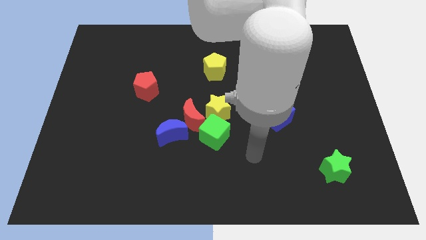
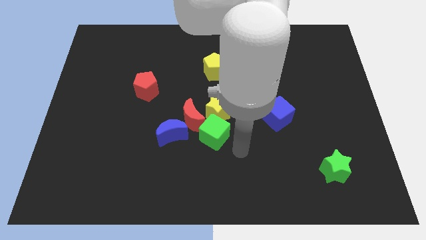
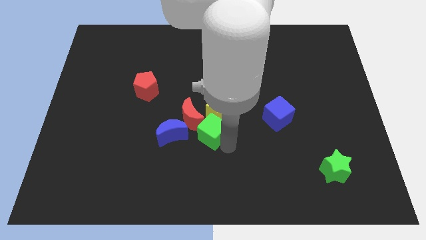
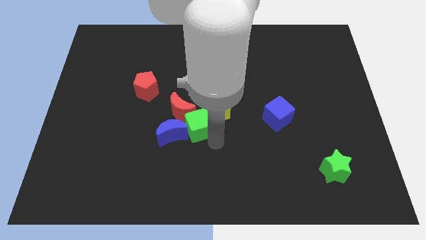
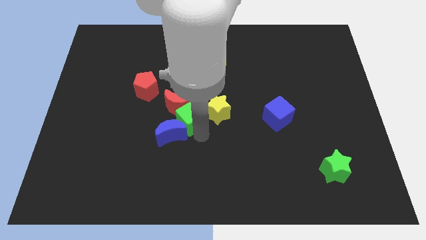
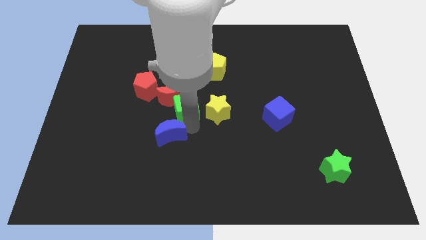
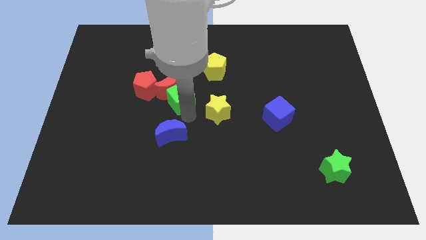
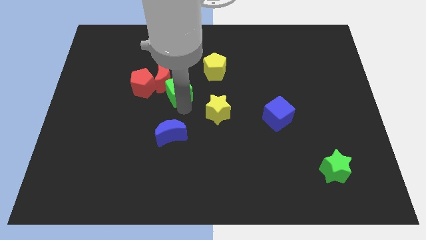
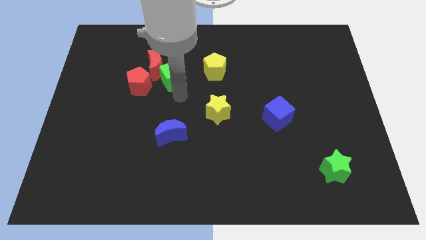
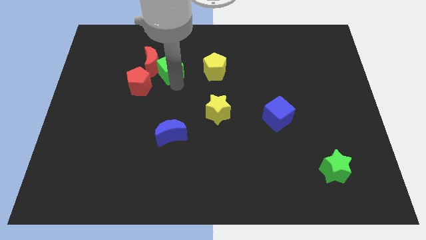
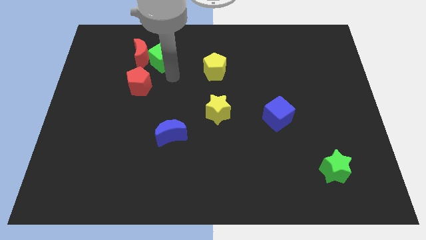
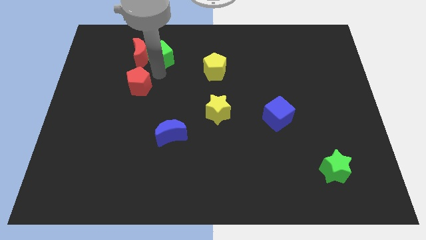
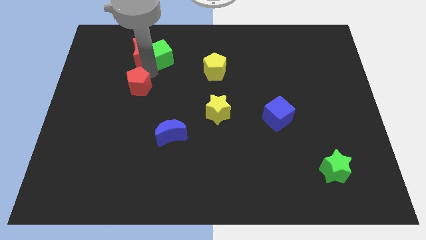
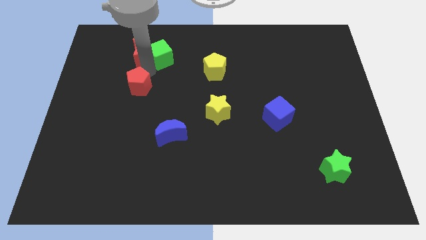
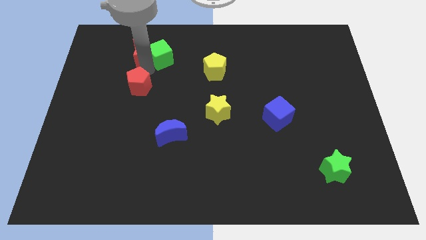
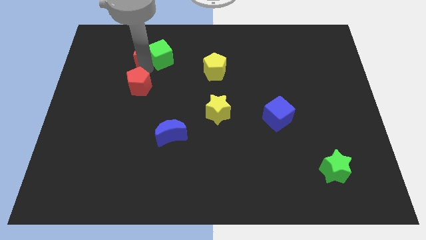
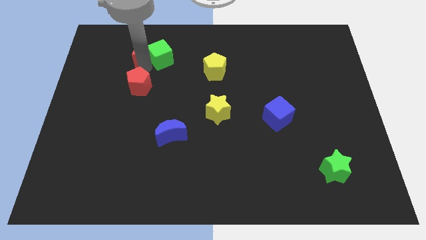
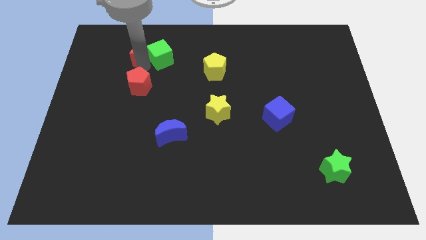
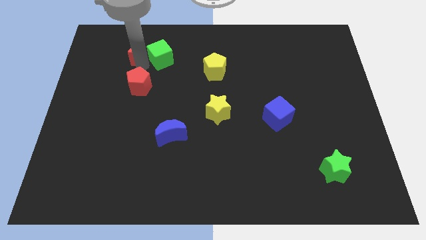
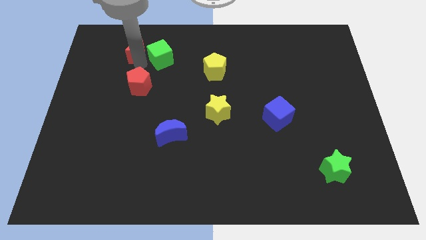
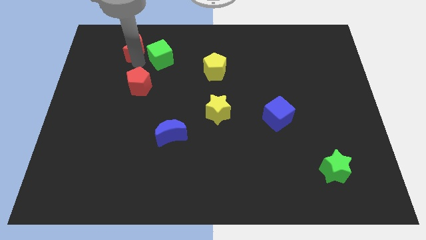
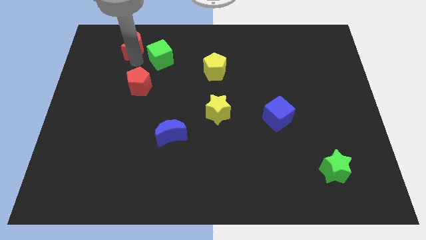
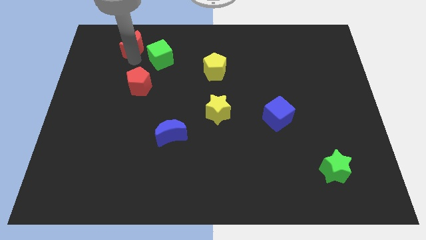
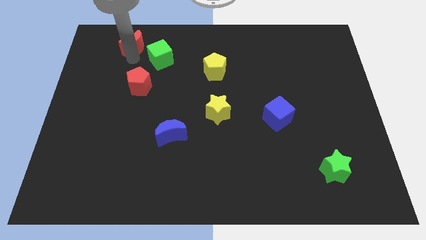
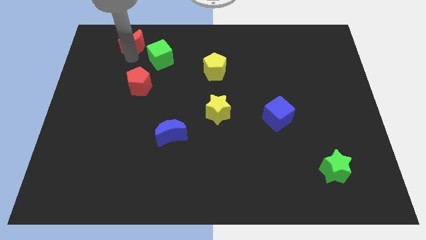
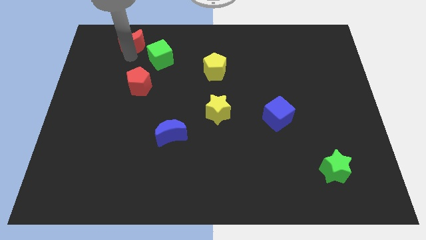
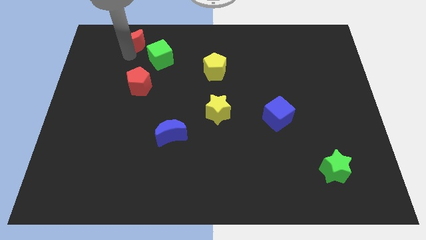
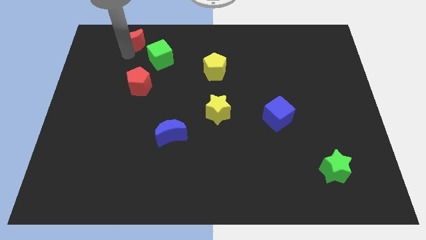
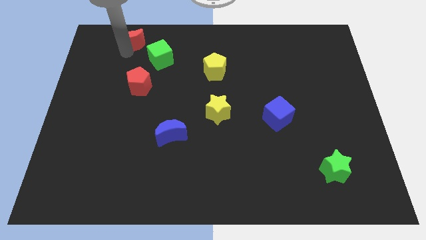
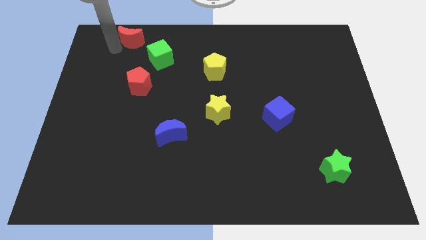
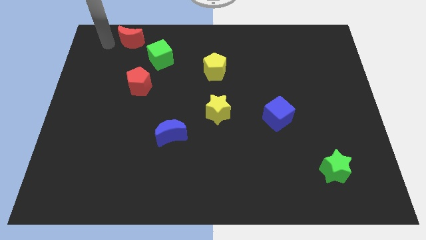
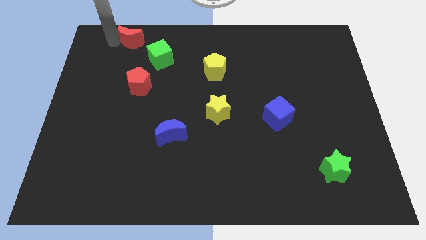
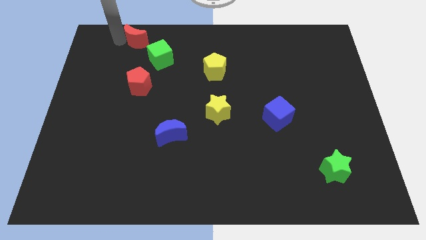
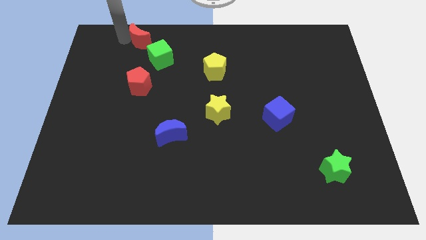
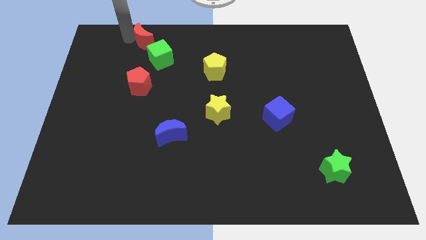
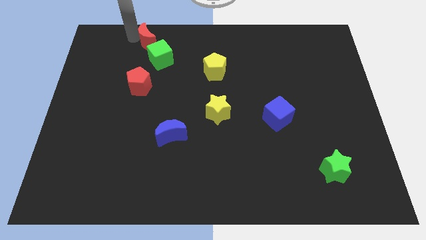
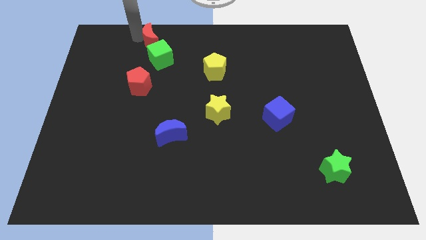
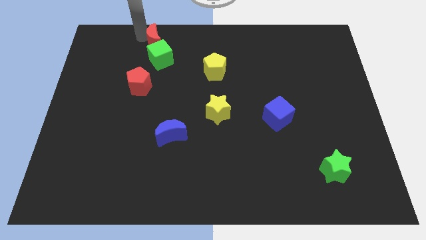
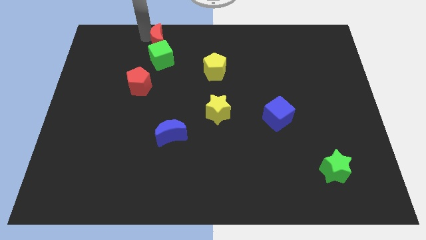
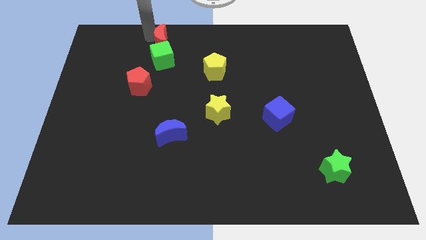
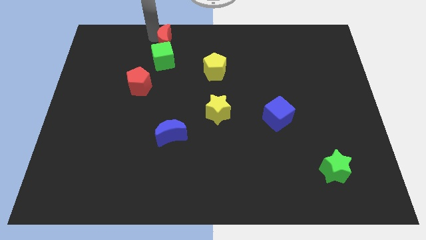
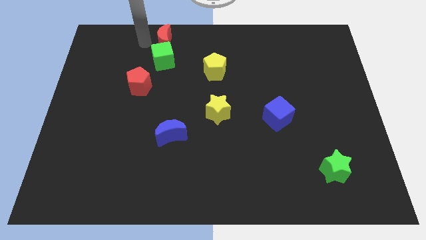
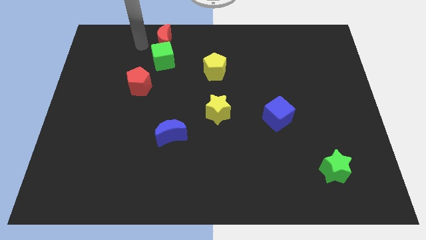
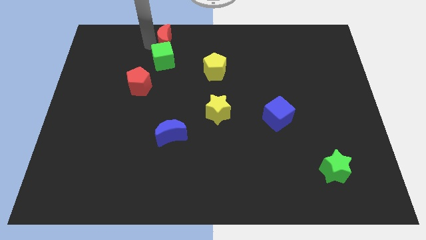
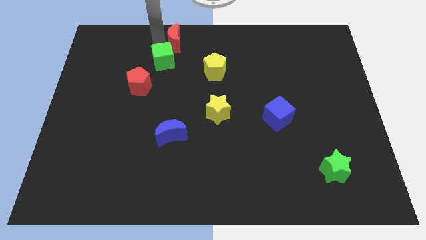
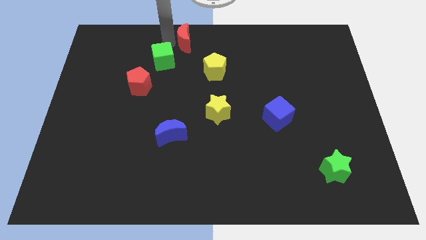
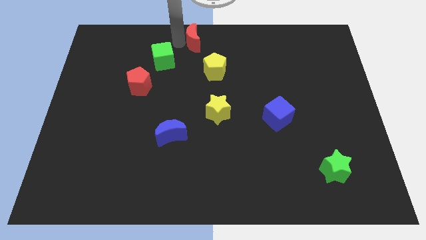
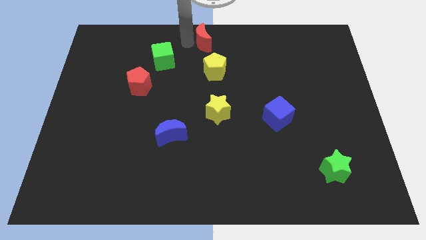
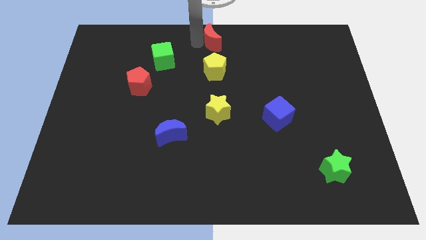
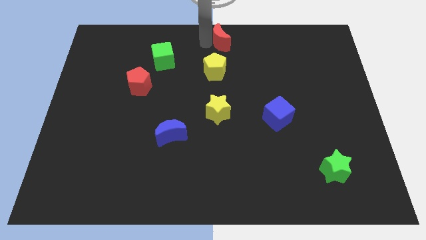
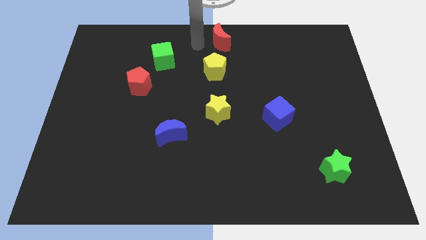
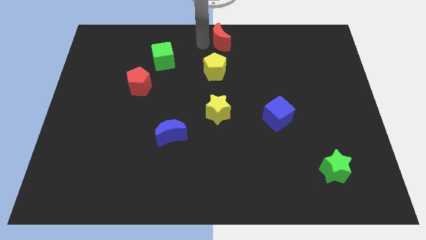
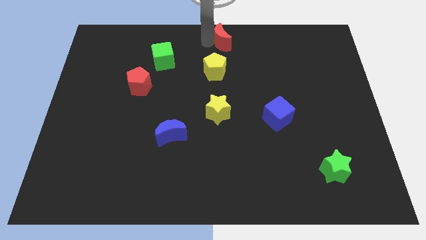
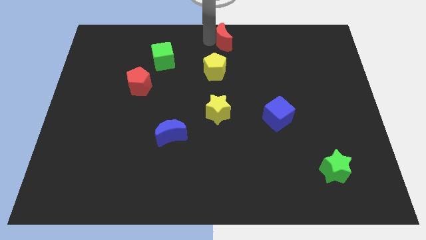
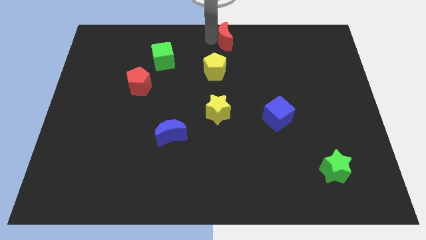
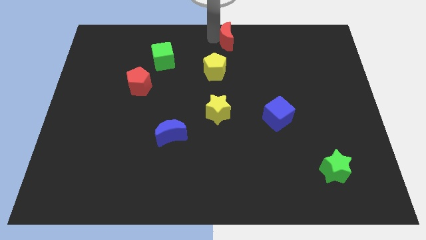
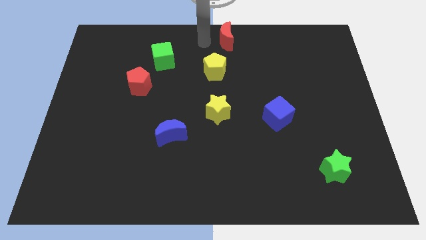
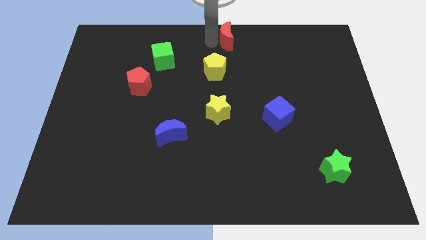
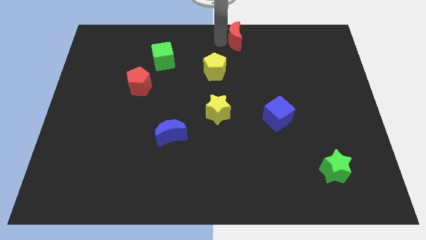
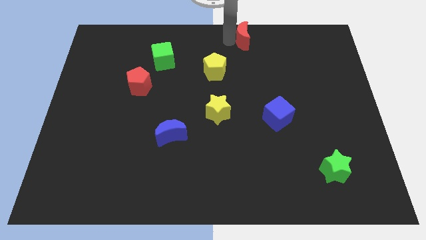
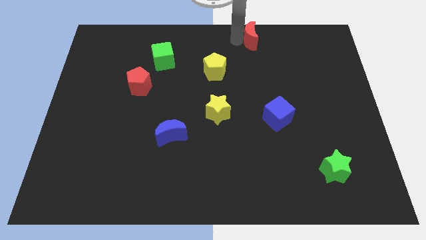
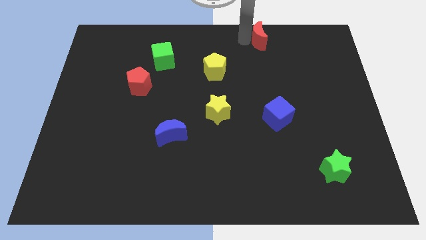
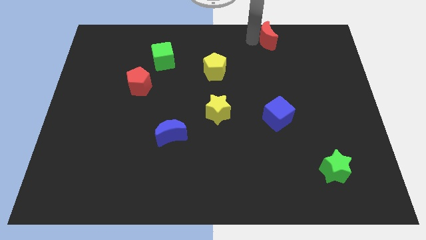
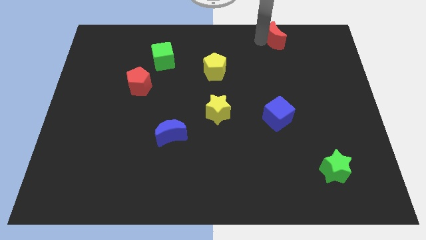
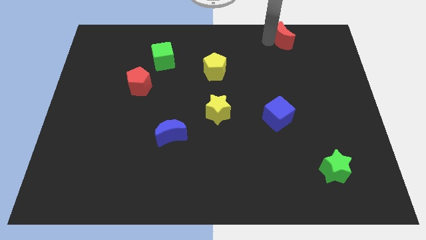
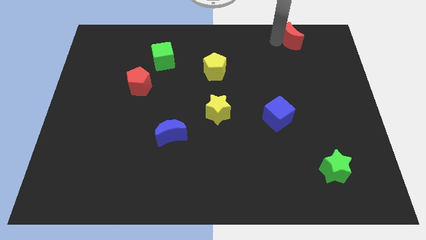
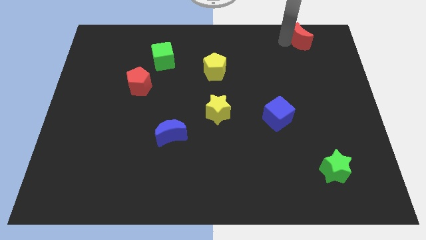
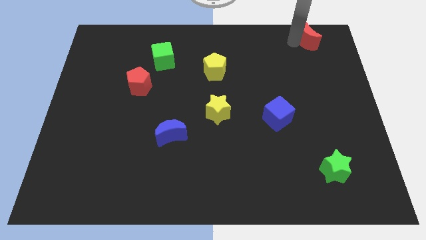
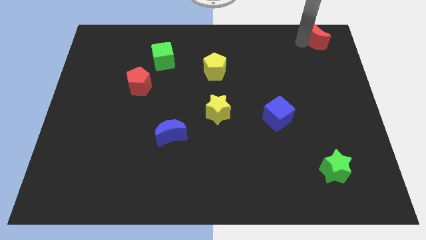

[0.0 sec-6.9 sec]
put the red moon to the top right of the board

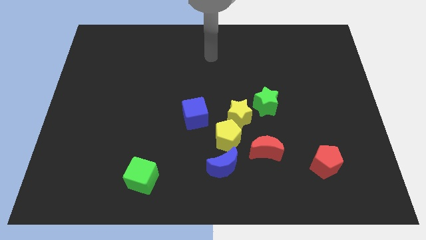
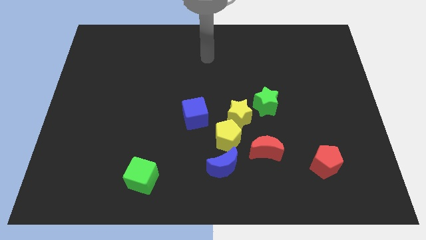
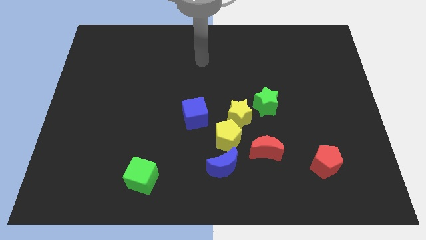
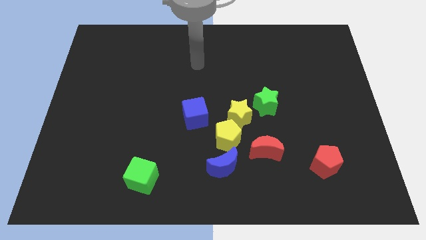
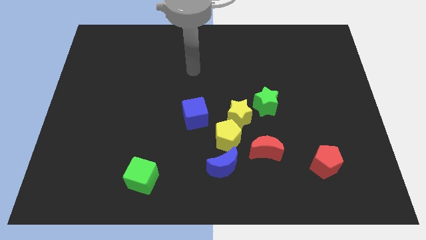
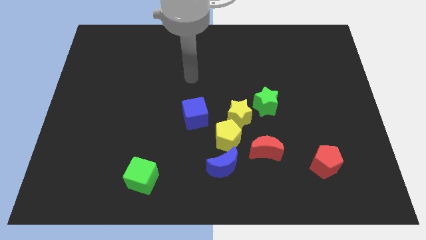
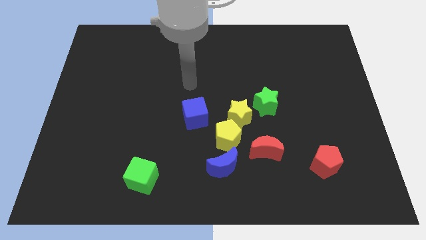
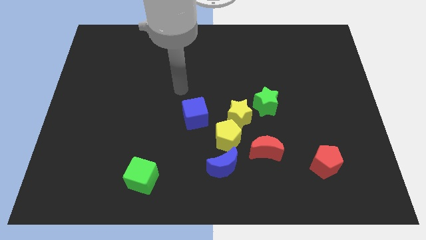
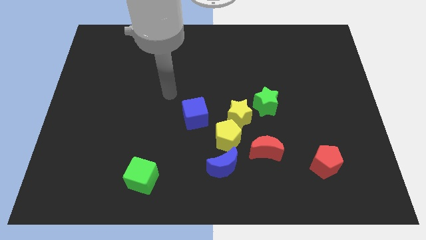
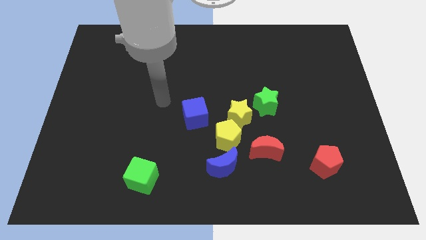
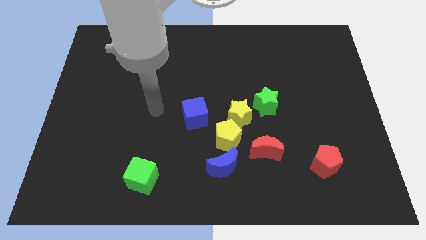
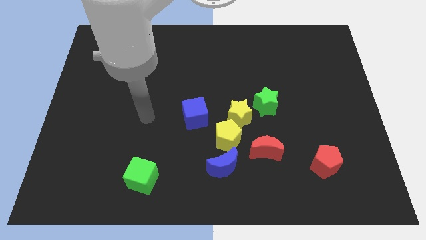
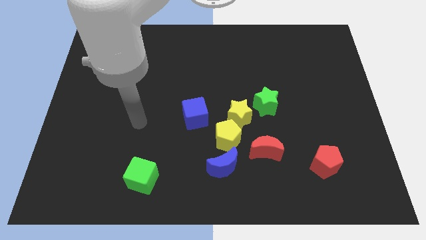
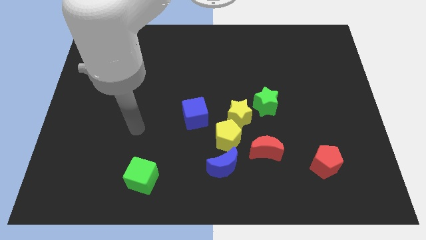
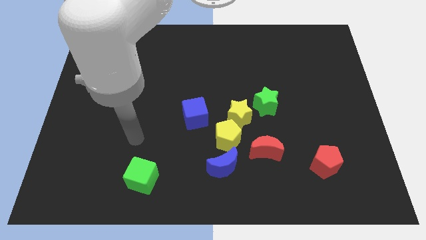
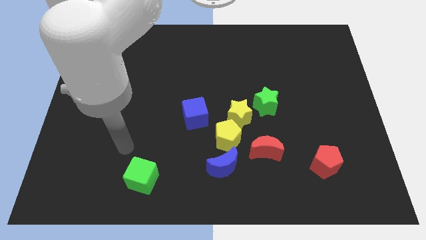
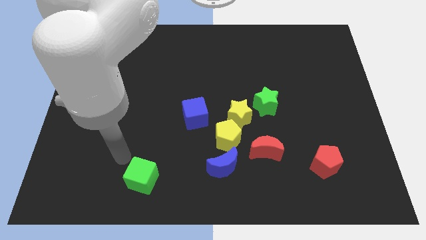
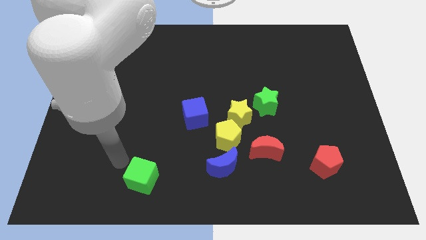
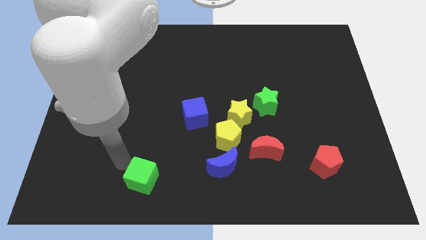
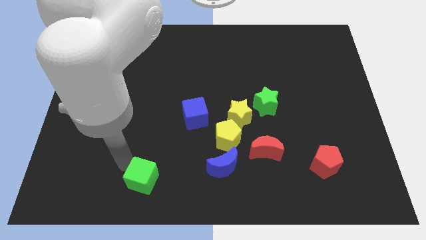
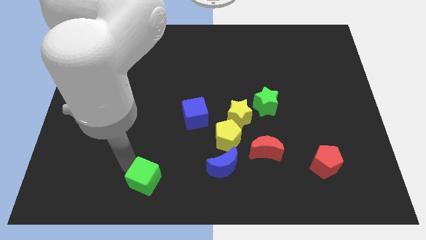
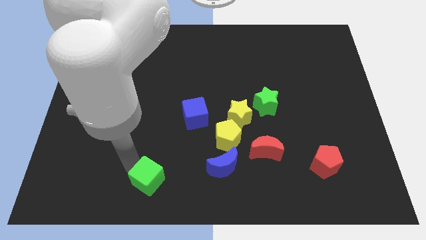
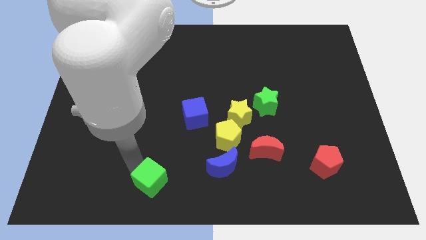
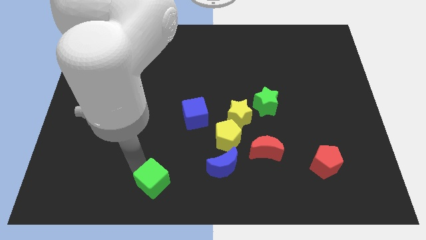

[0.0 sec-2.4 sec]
slide the green cube to the bottom
